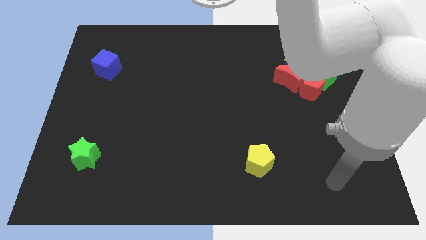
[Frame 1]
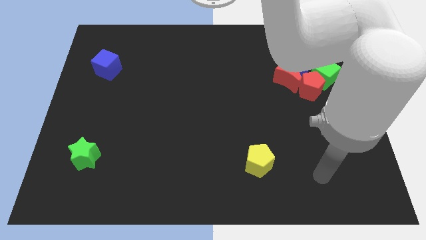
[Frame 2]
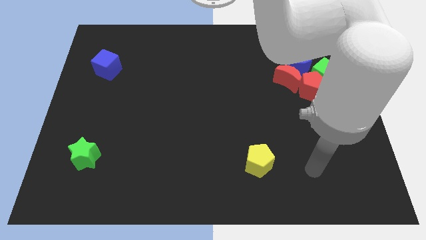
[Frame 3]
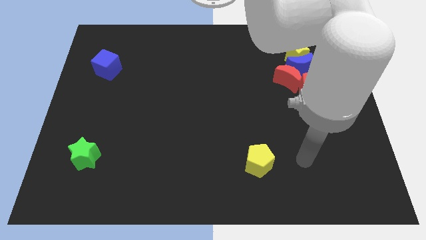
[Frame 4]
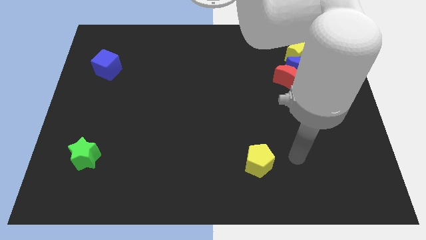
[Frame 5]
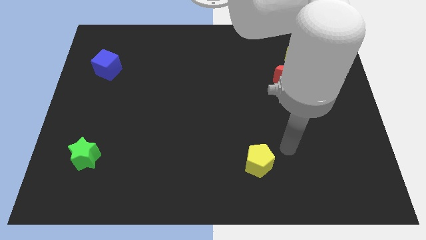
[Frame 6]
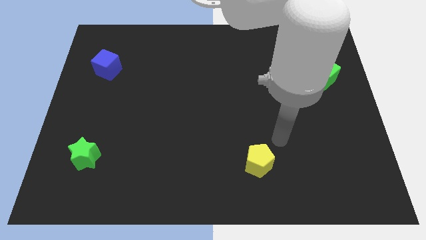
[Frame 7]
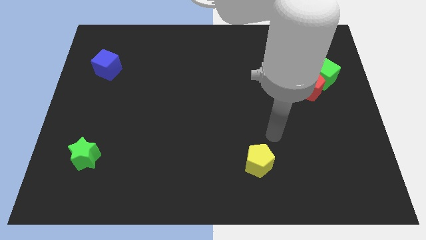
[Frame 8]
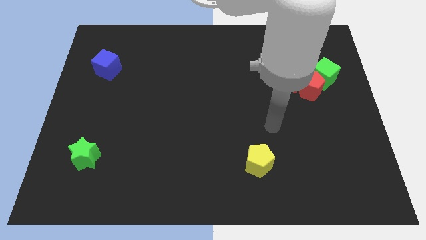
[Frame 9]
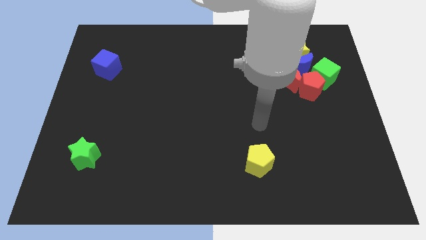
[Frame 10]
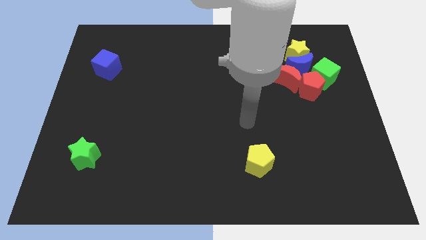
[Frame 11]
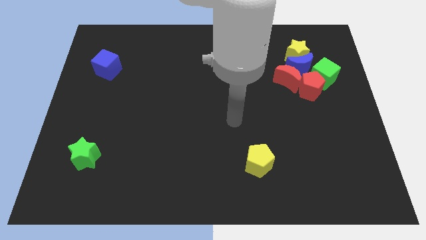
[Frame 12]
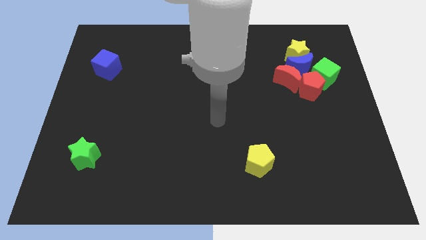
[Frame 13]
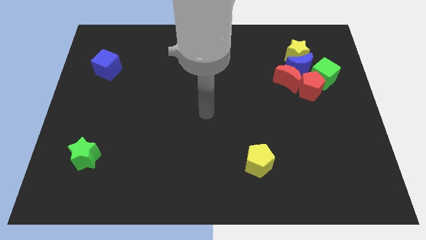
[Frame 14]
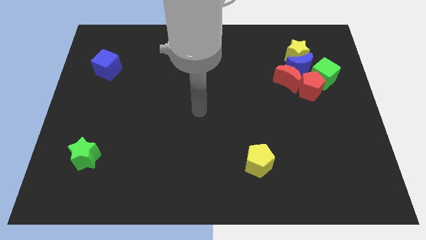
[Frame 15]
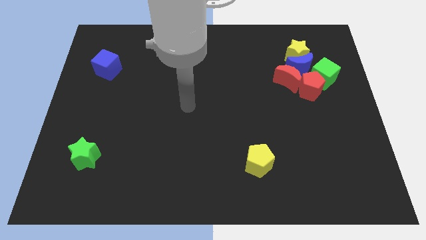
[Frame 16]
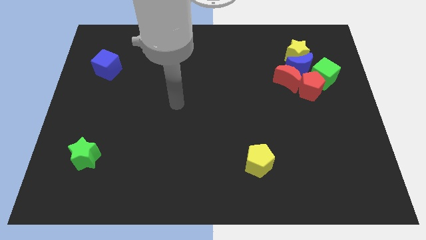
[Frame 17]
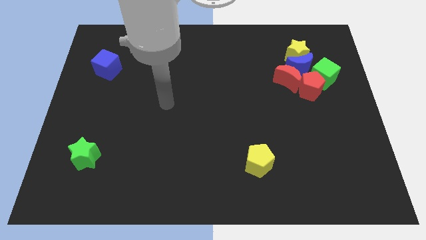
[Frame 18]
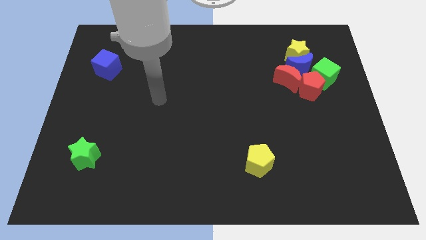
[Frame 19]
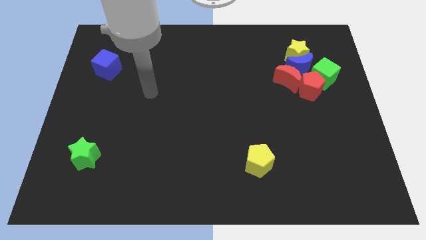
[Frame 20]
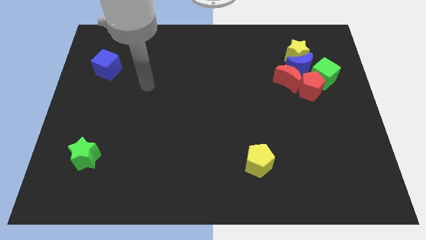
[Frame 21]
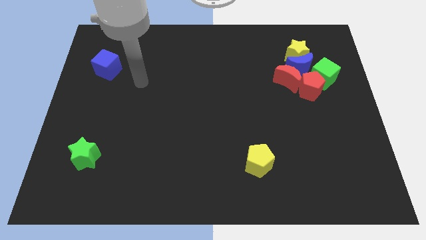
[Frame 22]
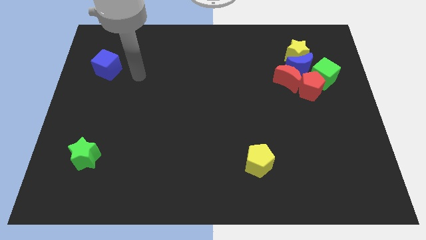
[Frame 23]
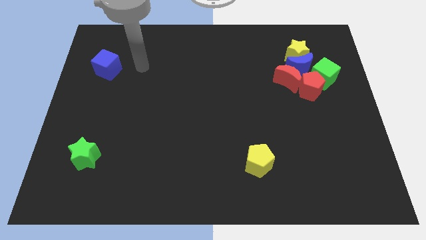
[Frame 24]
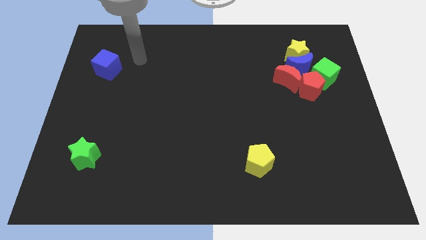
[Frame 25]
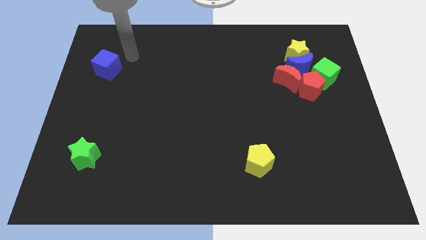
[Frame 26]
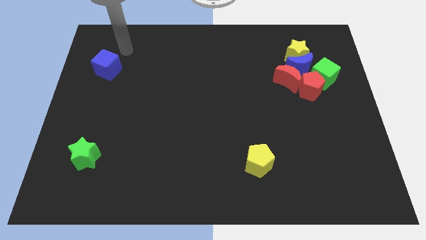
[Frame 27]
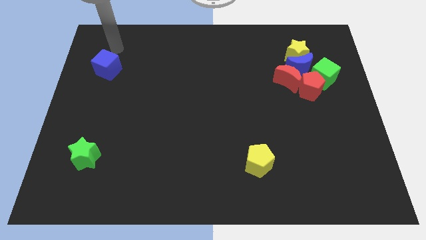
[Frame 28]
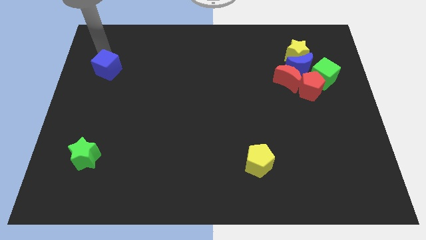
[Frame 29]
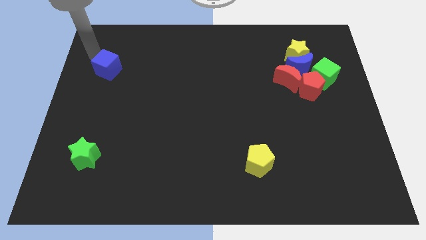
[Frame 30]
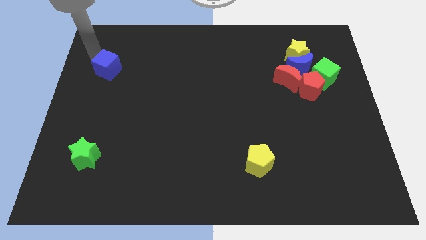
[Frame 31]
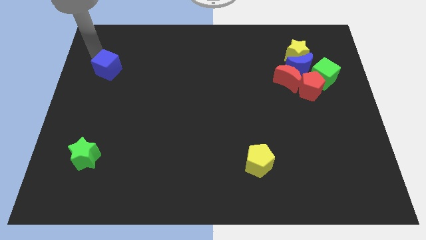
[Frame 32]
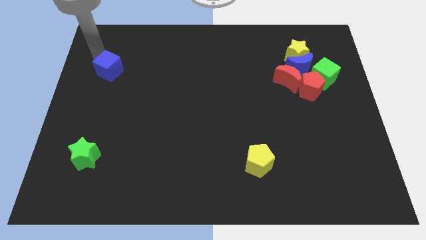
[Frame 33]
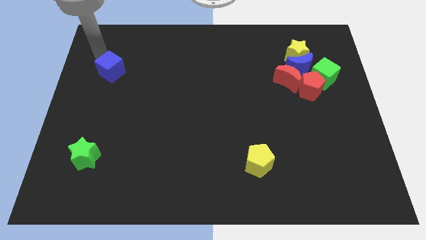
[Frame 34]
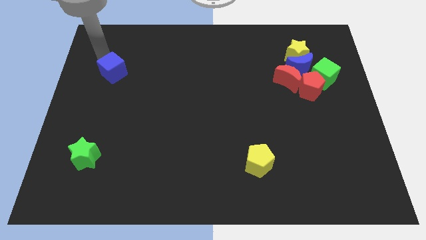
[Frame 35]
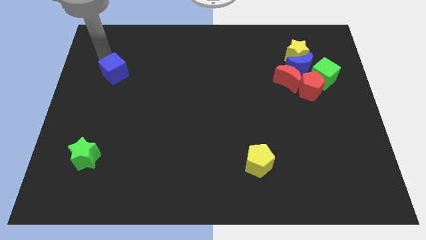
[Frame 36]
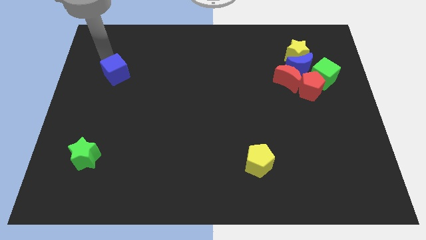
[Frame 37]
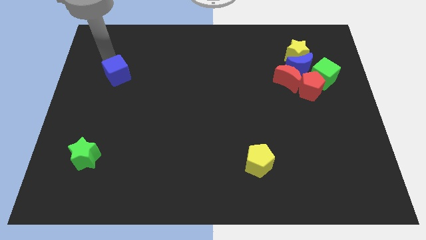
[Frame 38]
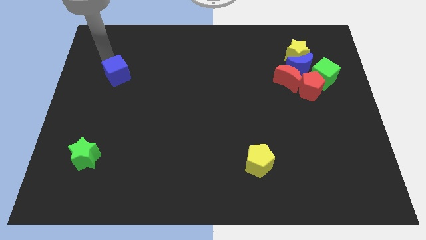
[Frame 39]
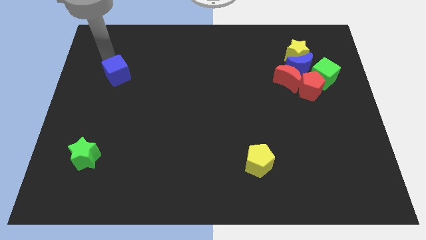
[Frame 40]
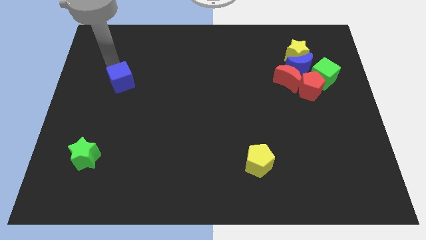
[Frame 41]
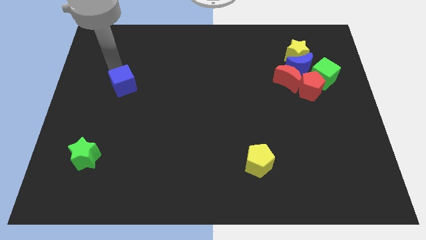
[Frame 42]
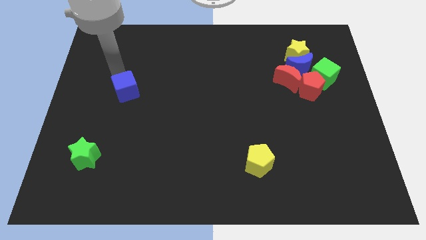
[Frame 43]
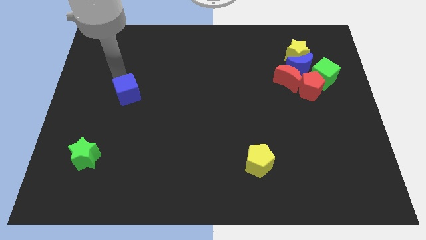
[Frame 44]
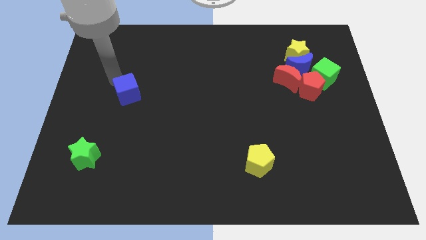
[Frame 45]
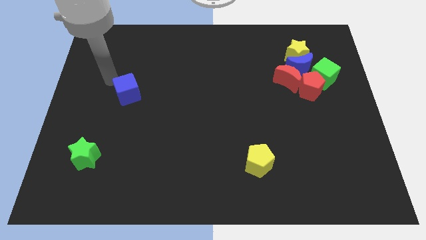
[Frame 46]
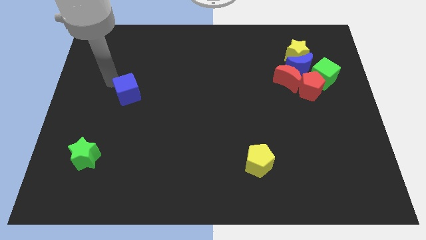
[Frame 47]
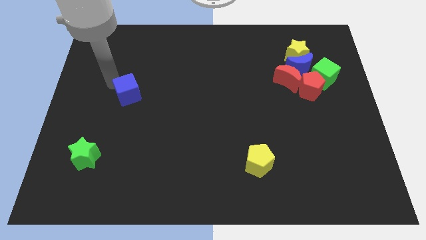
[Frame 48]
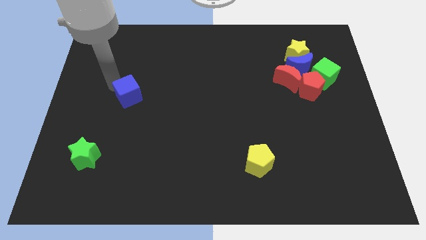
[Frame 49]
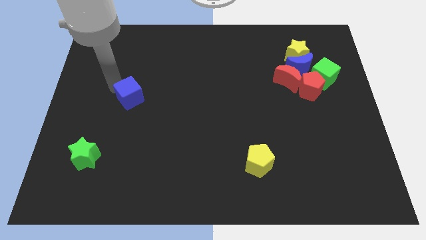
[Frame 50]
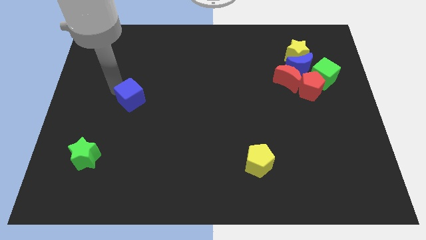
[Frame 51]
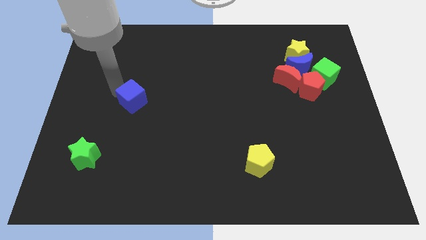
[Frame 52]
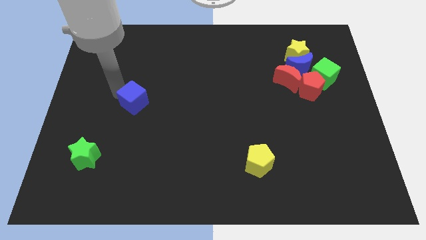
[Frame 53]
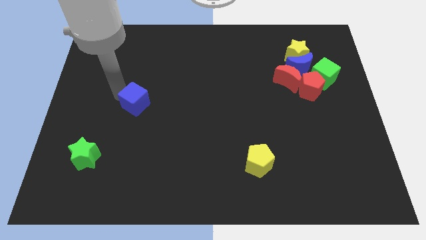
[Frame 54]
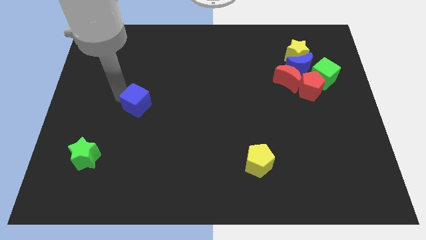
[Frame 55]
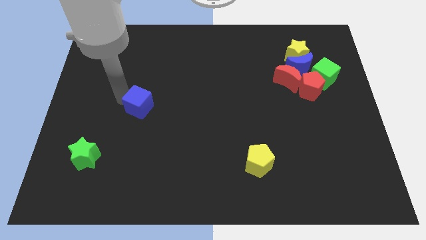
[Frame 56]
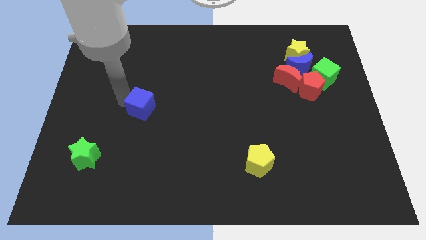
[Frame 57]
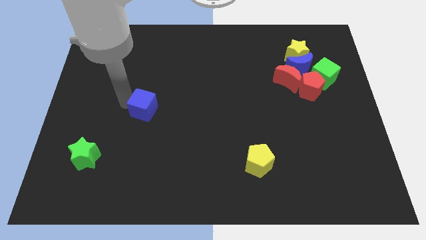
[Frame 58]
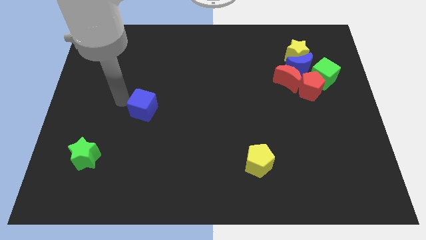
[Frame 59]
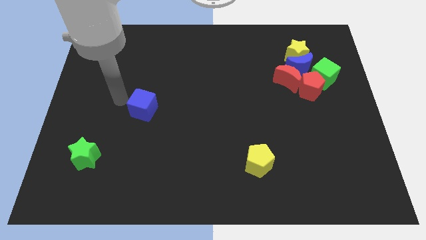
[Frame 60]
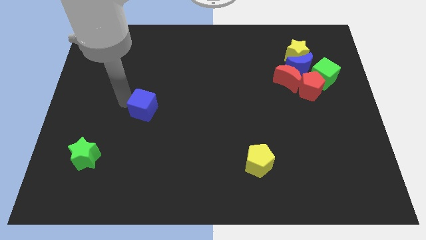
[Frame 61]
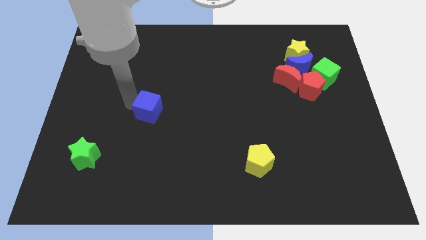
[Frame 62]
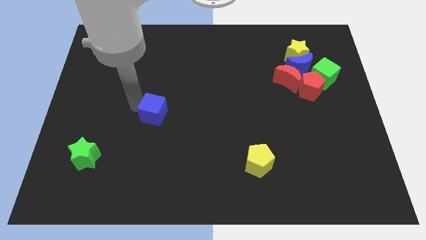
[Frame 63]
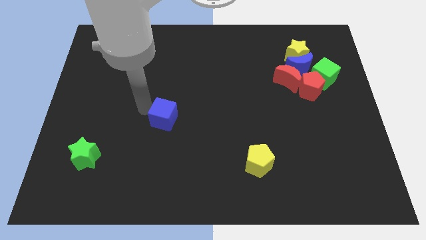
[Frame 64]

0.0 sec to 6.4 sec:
slide the blue cube downwards and right

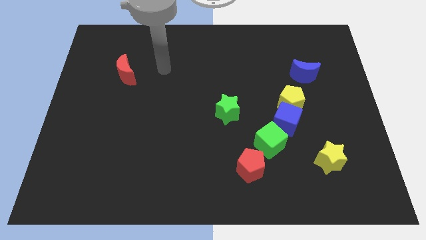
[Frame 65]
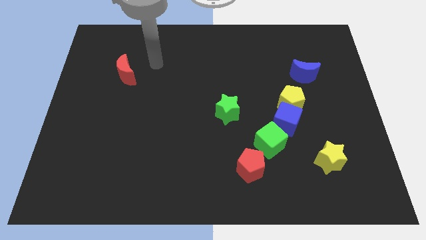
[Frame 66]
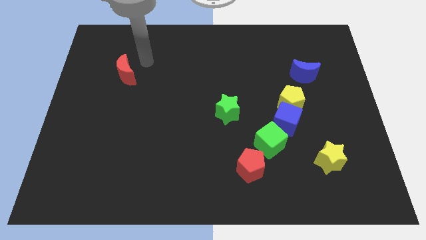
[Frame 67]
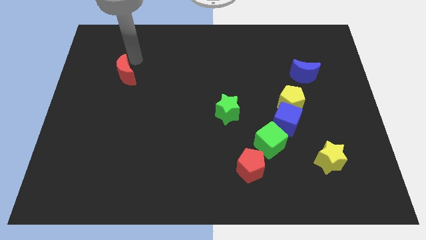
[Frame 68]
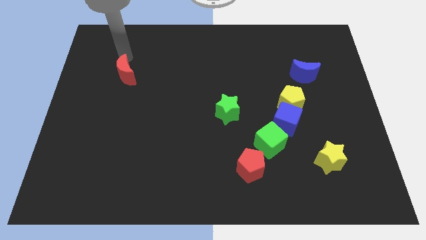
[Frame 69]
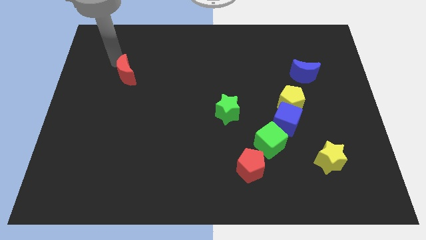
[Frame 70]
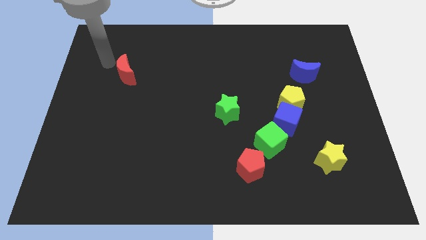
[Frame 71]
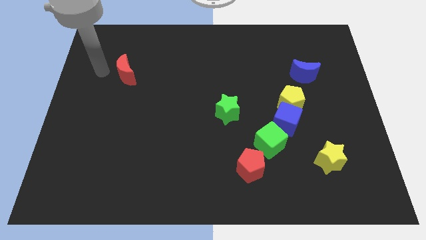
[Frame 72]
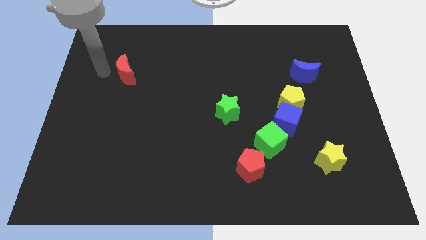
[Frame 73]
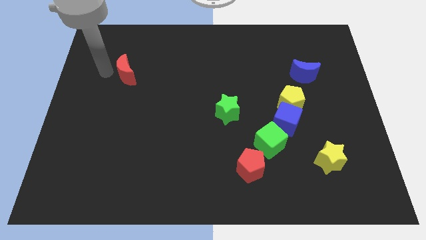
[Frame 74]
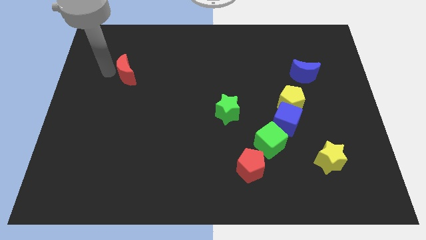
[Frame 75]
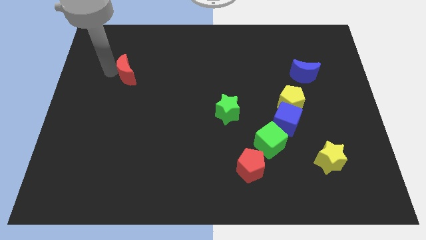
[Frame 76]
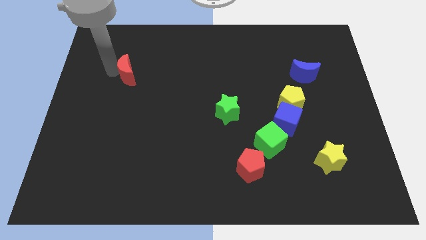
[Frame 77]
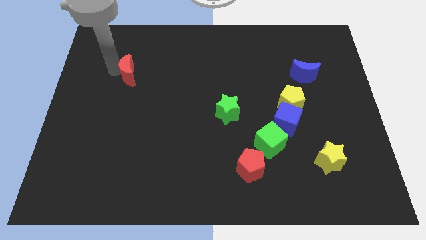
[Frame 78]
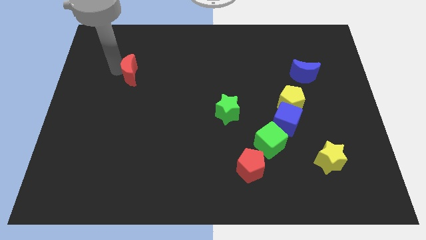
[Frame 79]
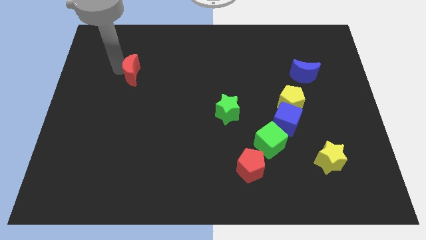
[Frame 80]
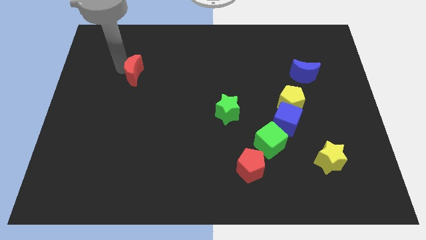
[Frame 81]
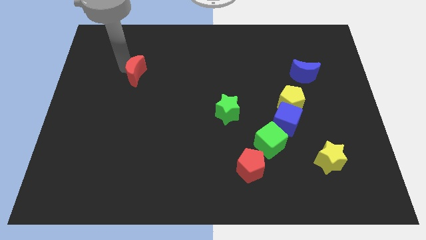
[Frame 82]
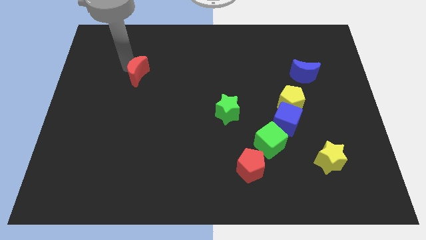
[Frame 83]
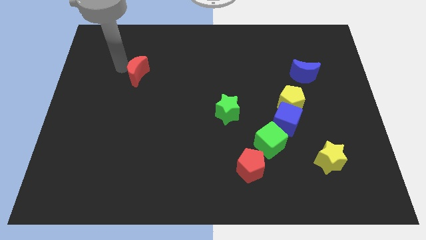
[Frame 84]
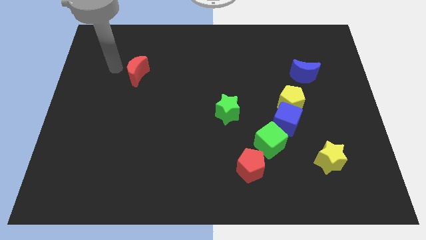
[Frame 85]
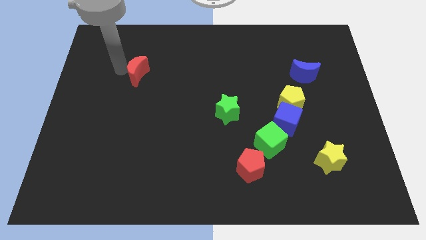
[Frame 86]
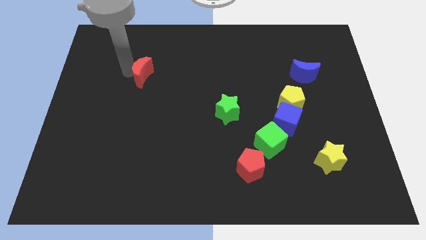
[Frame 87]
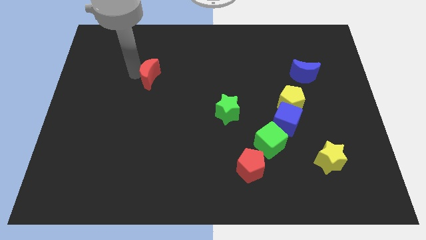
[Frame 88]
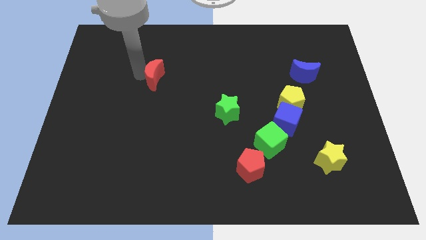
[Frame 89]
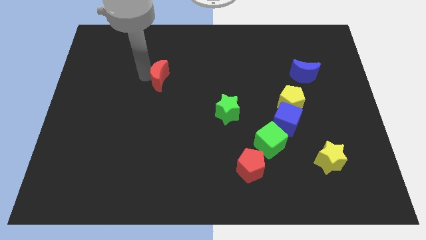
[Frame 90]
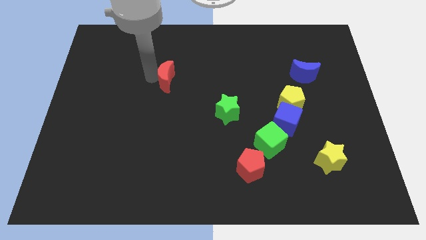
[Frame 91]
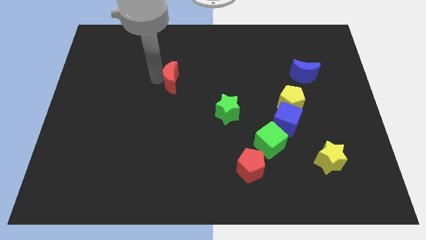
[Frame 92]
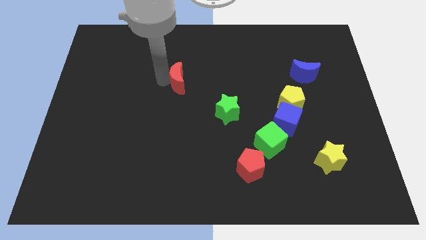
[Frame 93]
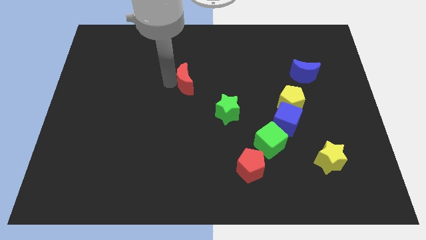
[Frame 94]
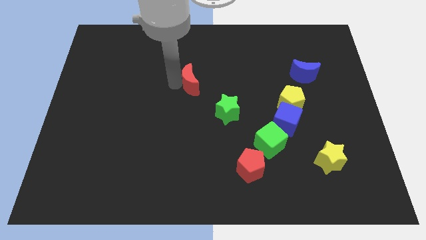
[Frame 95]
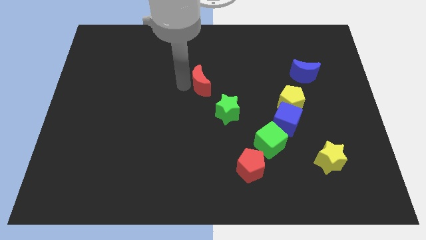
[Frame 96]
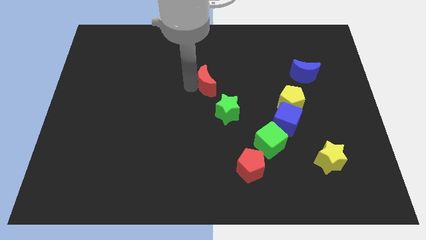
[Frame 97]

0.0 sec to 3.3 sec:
slide the red moon to the right
